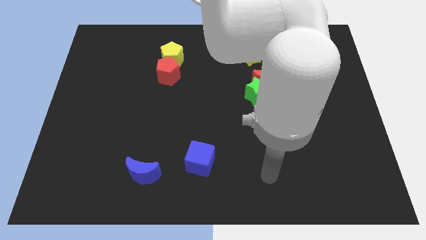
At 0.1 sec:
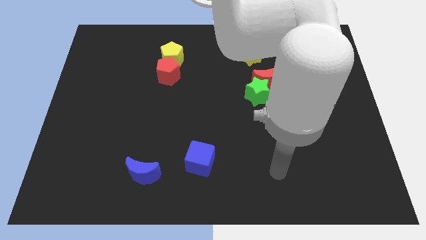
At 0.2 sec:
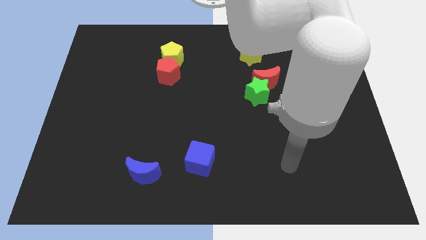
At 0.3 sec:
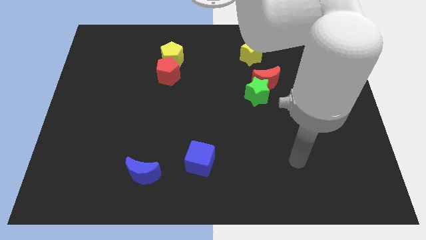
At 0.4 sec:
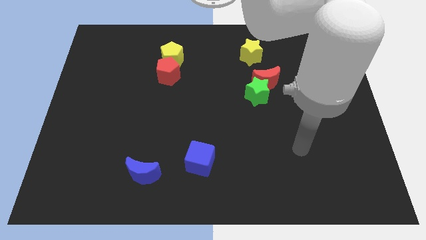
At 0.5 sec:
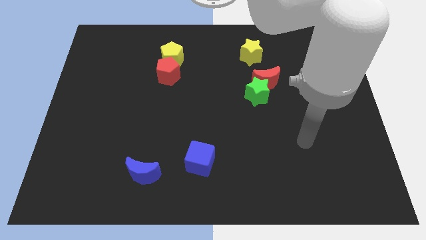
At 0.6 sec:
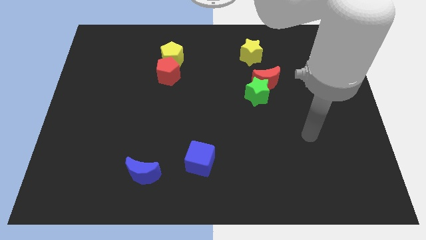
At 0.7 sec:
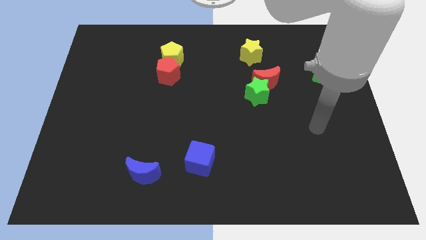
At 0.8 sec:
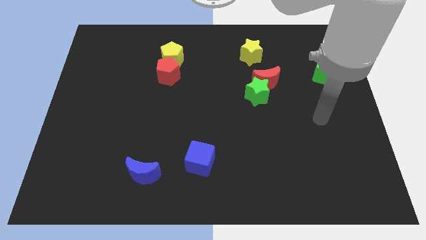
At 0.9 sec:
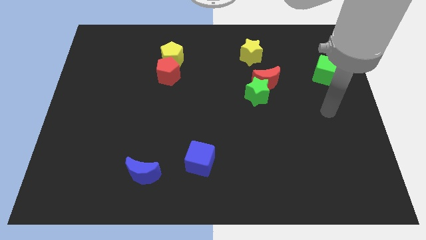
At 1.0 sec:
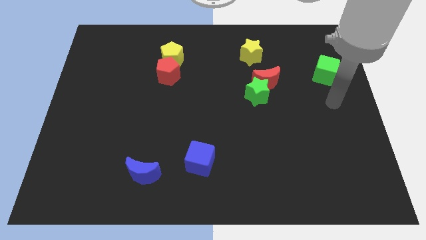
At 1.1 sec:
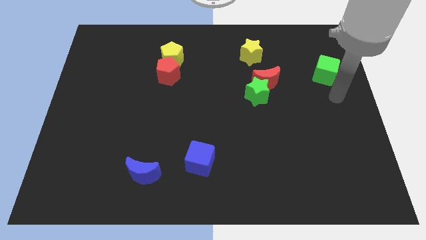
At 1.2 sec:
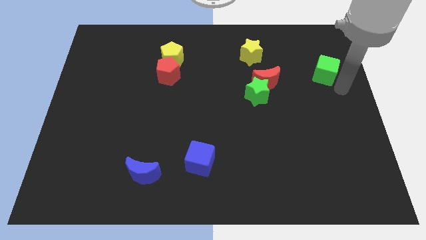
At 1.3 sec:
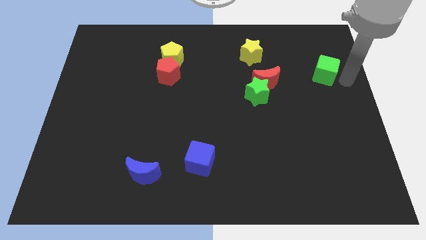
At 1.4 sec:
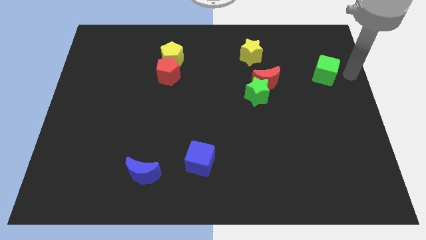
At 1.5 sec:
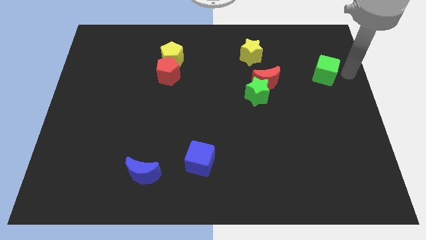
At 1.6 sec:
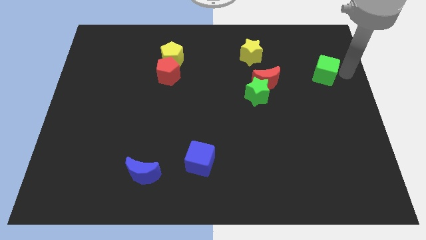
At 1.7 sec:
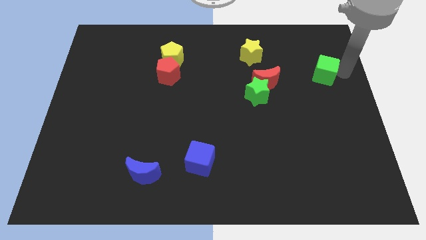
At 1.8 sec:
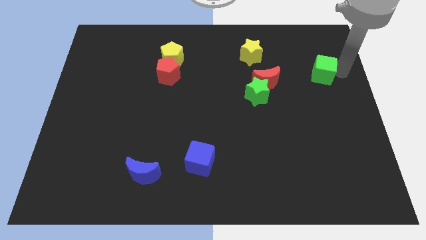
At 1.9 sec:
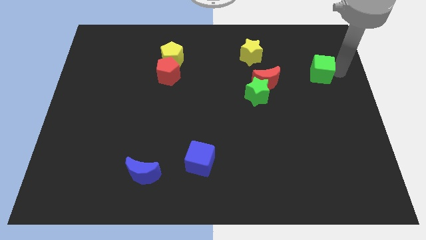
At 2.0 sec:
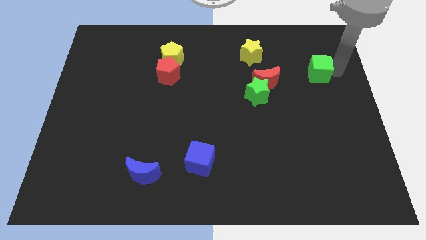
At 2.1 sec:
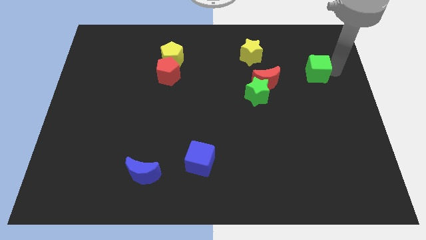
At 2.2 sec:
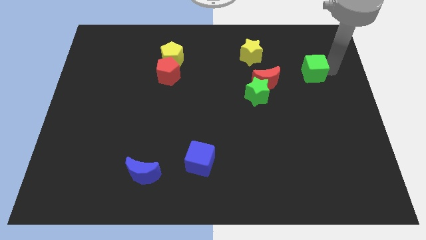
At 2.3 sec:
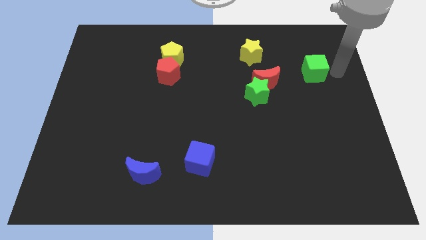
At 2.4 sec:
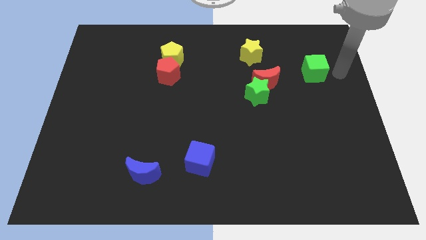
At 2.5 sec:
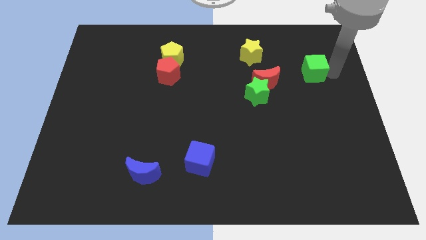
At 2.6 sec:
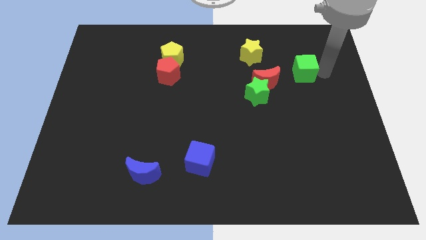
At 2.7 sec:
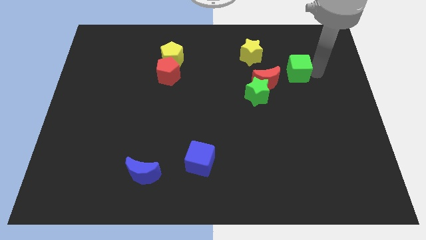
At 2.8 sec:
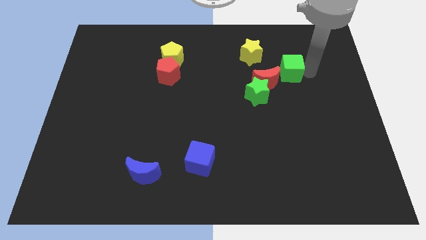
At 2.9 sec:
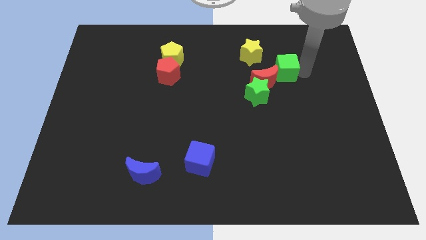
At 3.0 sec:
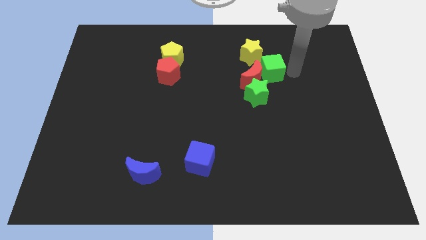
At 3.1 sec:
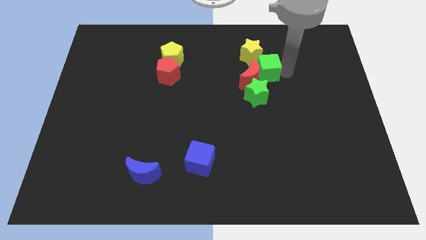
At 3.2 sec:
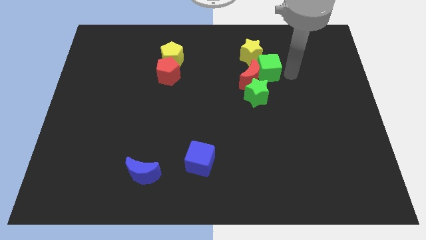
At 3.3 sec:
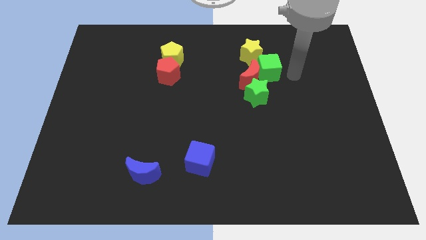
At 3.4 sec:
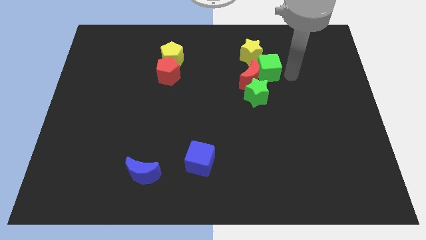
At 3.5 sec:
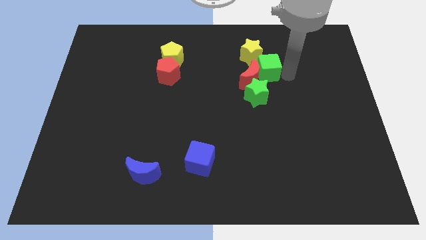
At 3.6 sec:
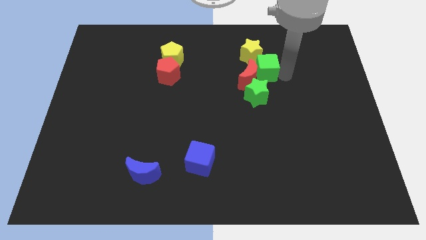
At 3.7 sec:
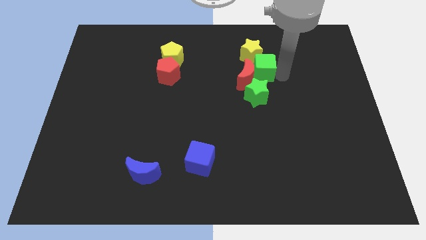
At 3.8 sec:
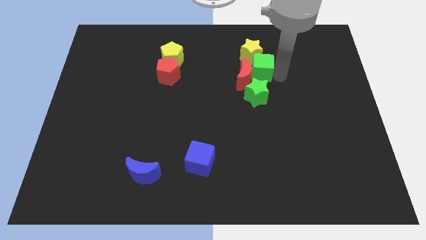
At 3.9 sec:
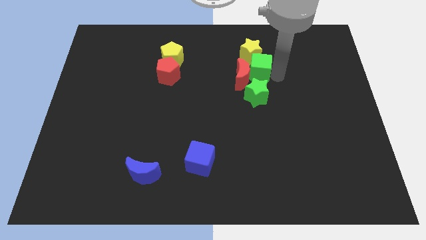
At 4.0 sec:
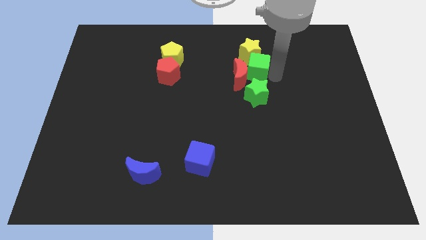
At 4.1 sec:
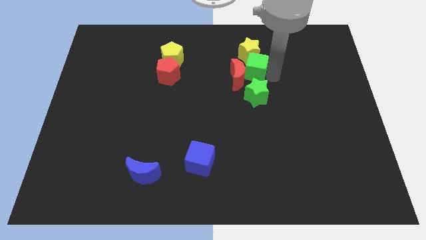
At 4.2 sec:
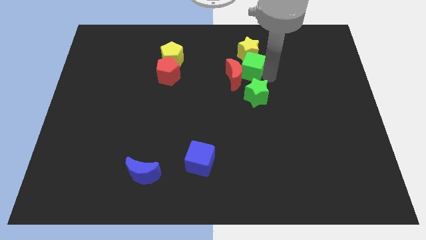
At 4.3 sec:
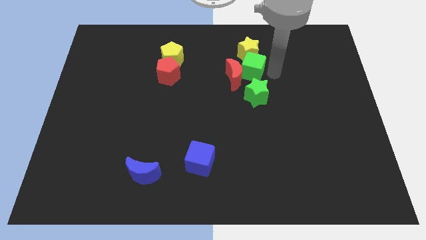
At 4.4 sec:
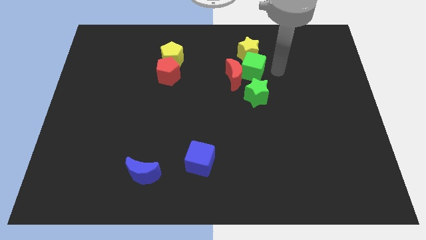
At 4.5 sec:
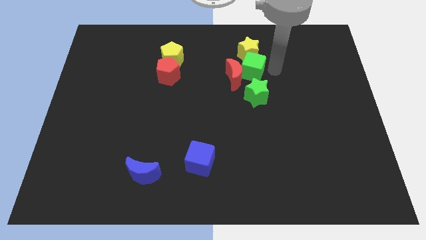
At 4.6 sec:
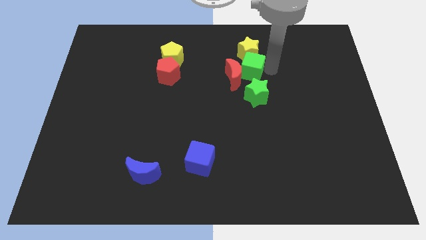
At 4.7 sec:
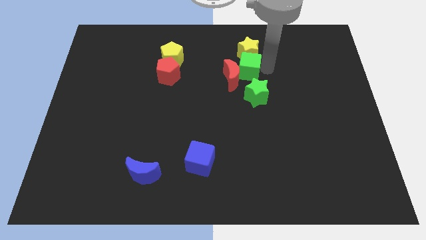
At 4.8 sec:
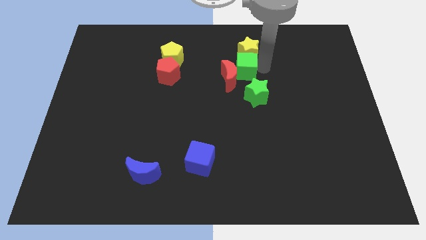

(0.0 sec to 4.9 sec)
slide the green cube to the left

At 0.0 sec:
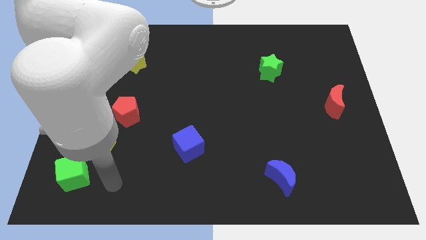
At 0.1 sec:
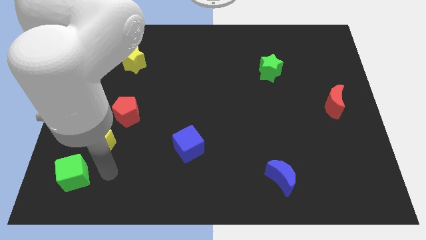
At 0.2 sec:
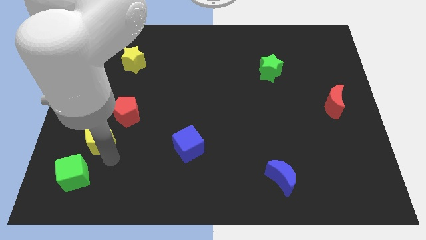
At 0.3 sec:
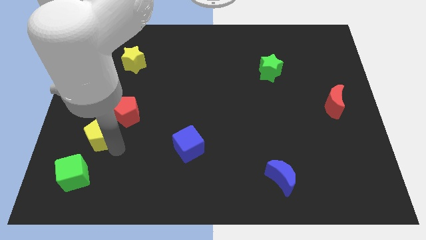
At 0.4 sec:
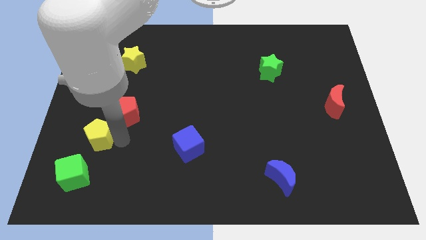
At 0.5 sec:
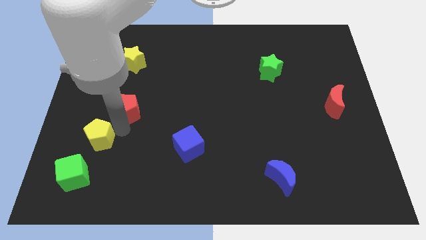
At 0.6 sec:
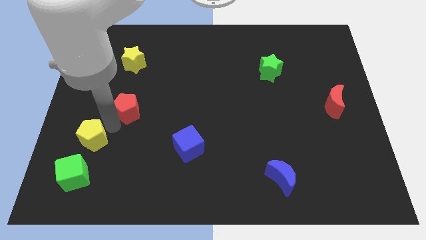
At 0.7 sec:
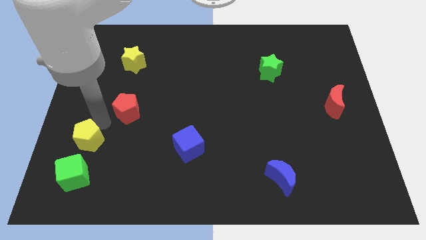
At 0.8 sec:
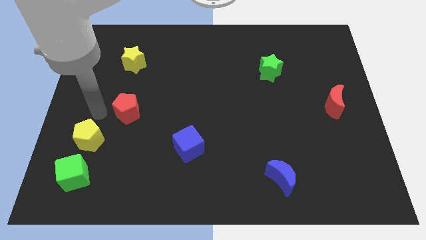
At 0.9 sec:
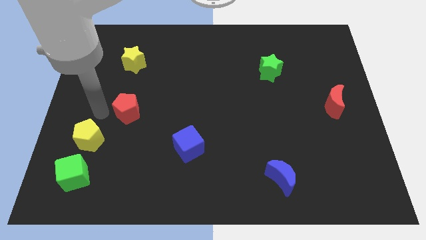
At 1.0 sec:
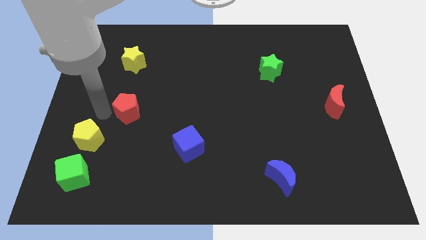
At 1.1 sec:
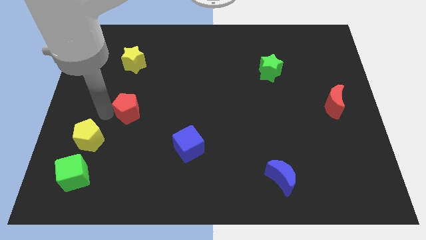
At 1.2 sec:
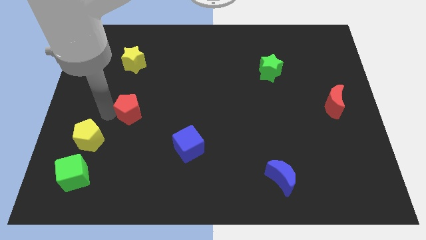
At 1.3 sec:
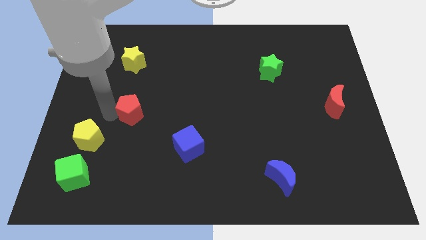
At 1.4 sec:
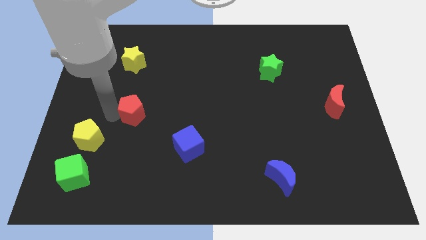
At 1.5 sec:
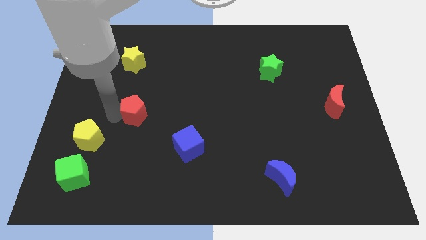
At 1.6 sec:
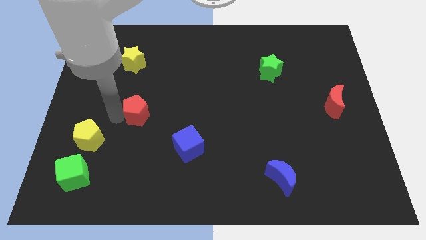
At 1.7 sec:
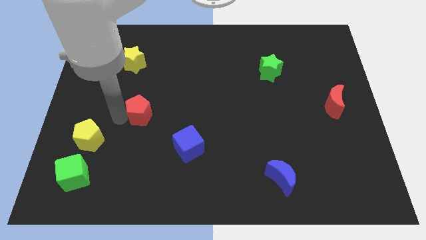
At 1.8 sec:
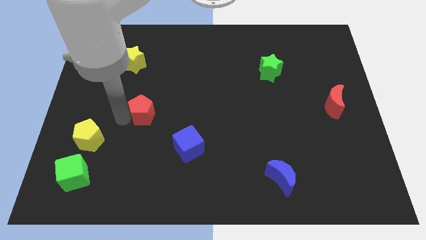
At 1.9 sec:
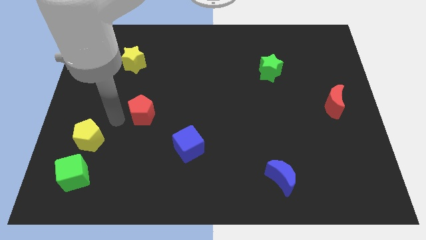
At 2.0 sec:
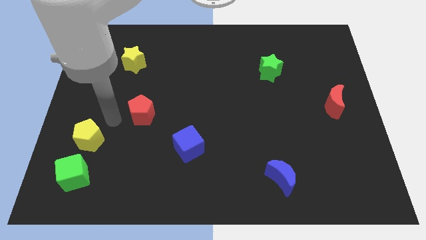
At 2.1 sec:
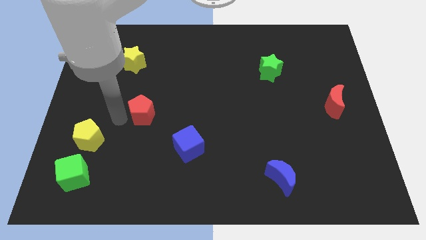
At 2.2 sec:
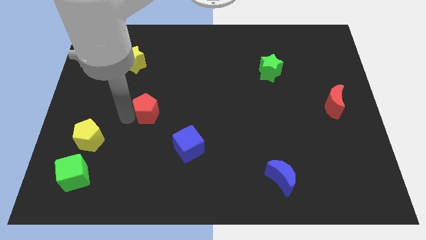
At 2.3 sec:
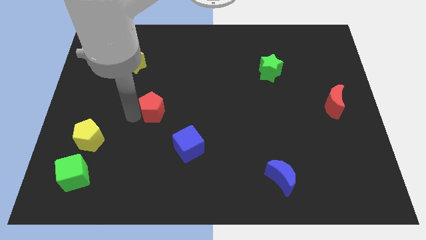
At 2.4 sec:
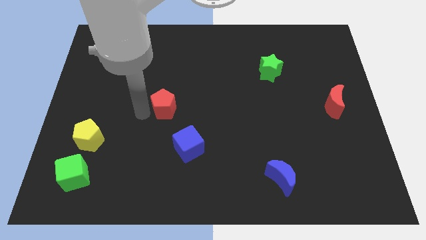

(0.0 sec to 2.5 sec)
move the red pentagon right a little

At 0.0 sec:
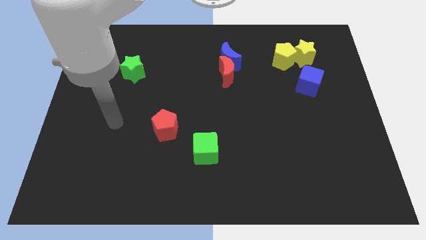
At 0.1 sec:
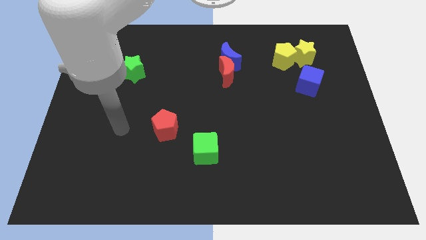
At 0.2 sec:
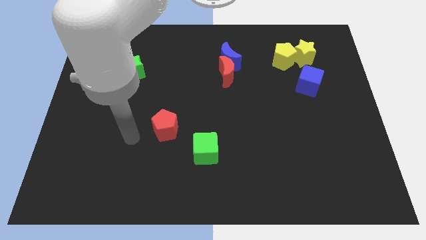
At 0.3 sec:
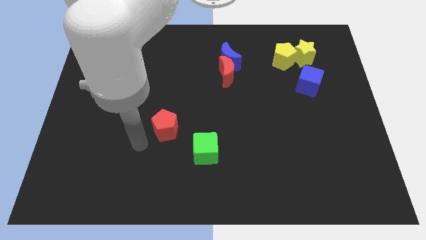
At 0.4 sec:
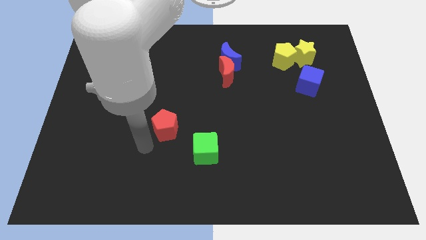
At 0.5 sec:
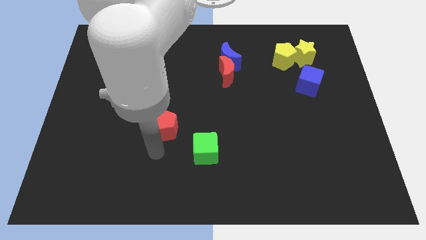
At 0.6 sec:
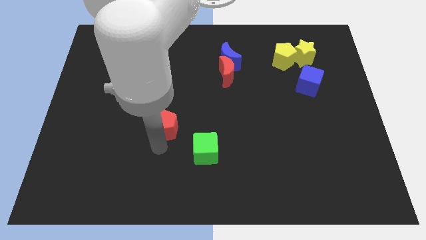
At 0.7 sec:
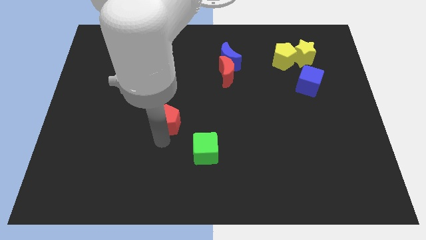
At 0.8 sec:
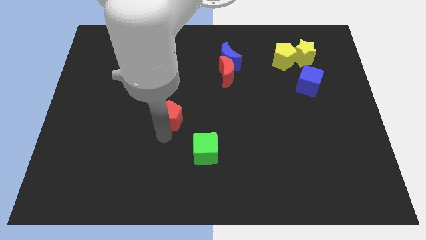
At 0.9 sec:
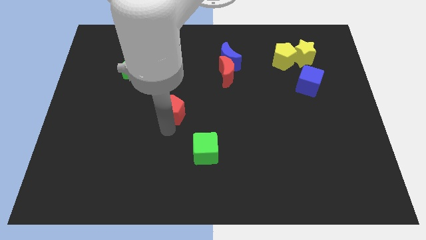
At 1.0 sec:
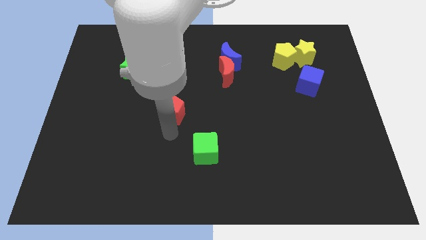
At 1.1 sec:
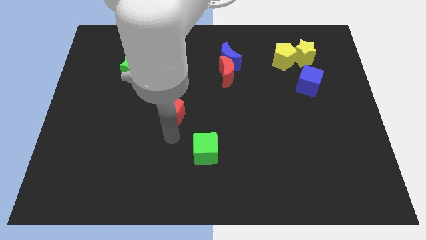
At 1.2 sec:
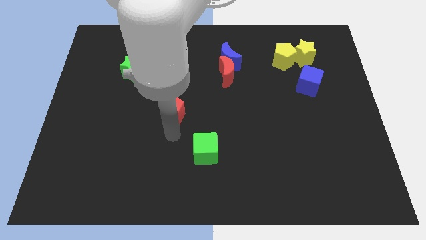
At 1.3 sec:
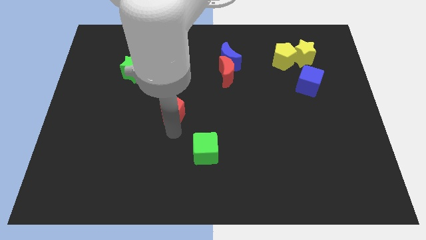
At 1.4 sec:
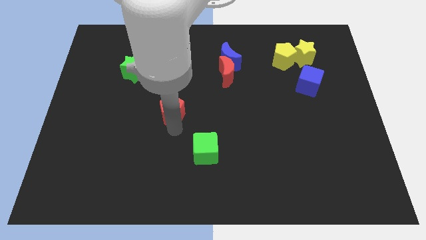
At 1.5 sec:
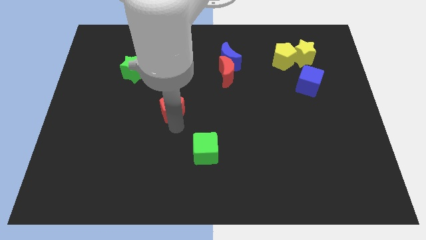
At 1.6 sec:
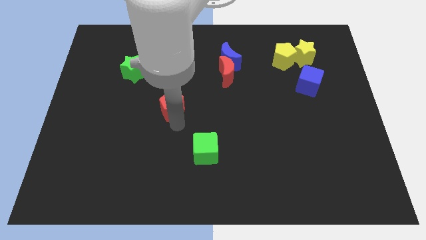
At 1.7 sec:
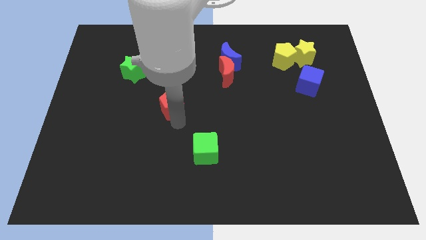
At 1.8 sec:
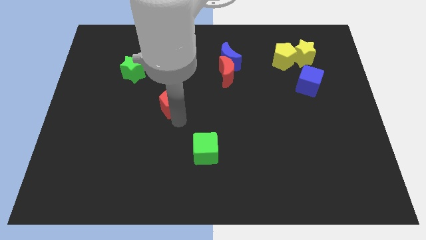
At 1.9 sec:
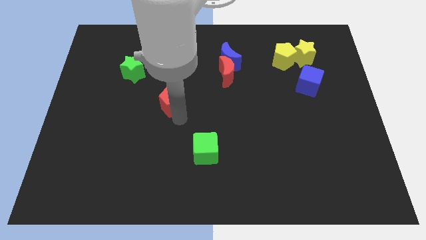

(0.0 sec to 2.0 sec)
slightly move the red pentagon up
